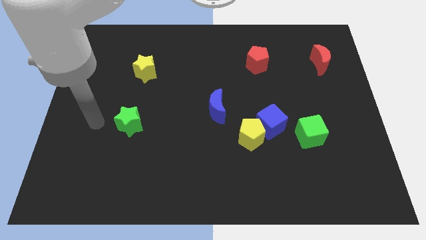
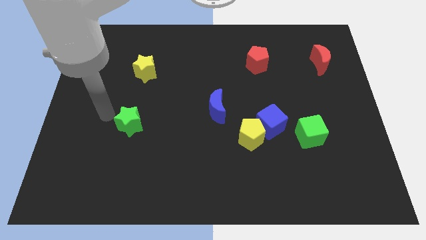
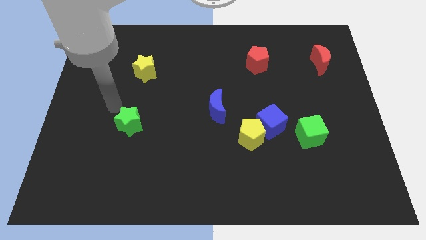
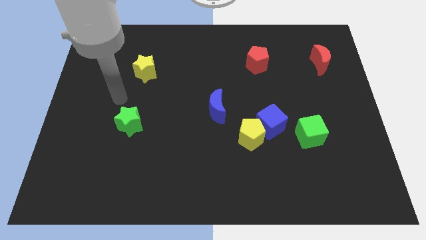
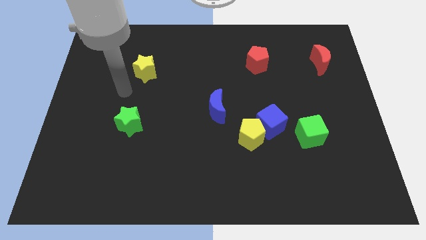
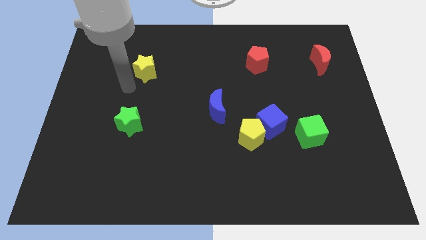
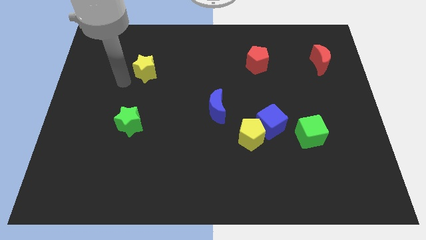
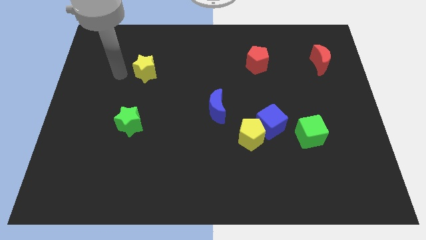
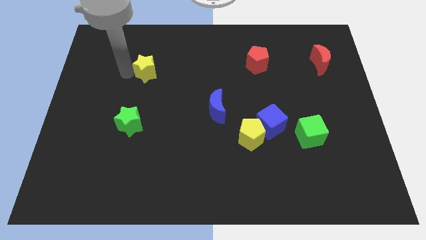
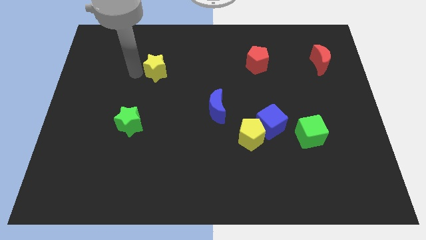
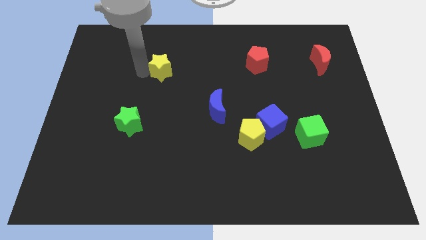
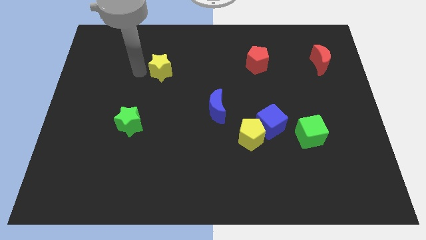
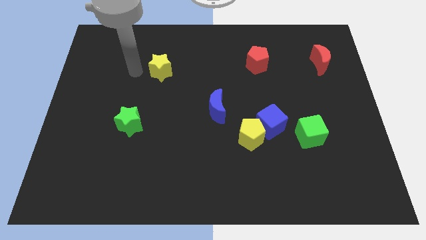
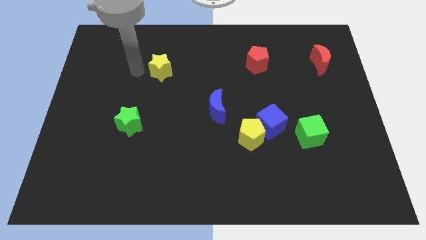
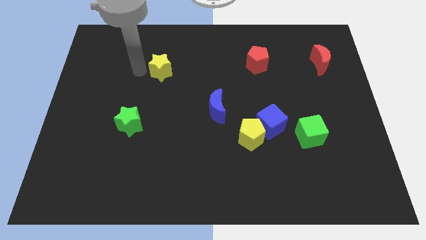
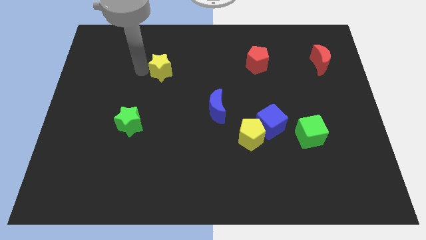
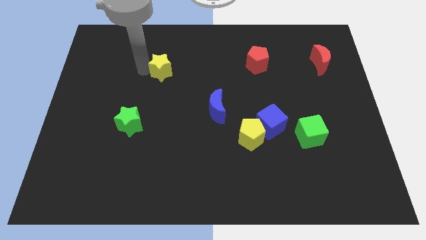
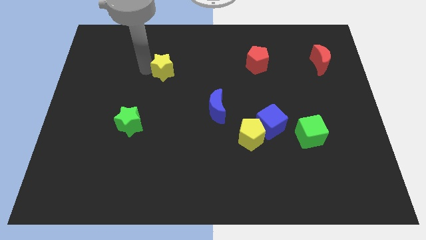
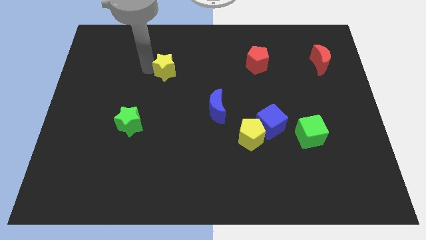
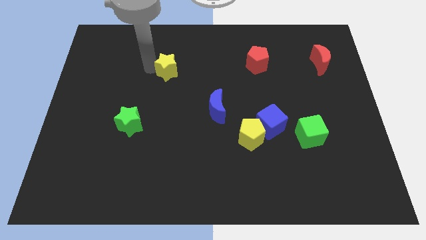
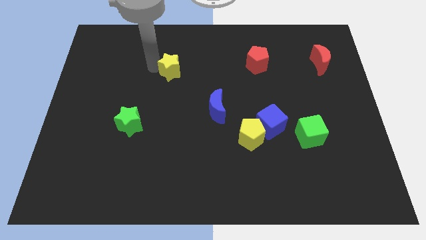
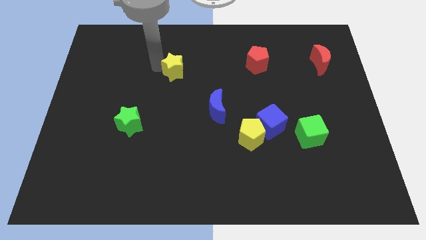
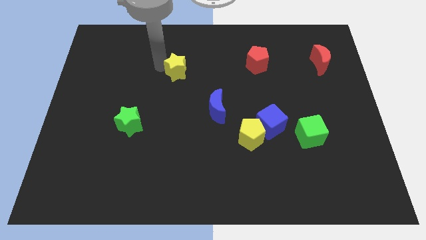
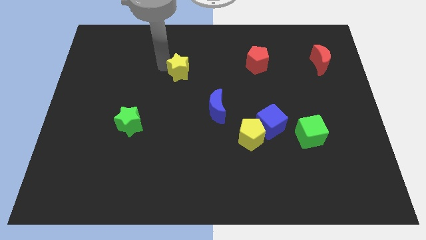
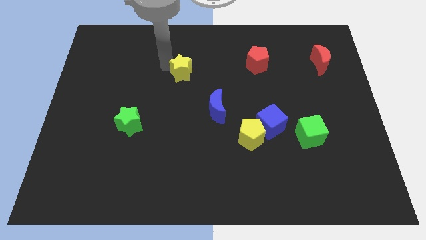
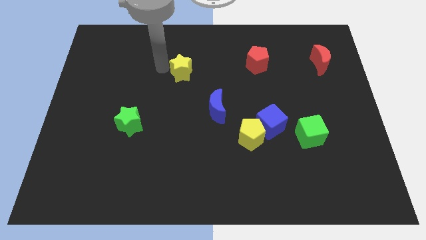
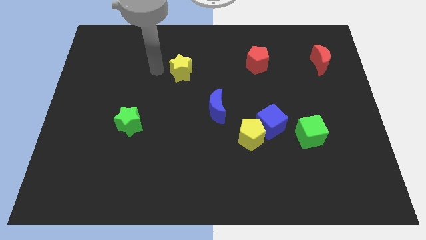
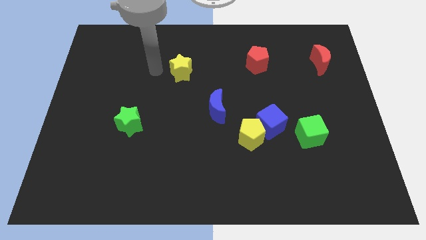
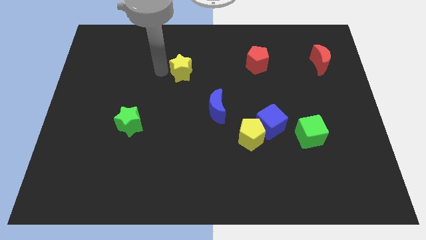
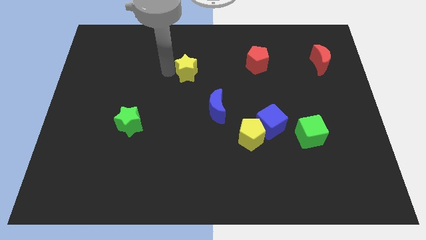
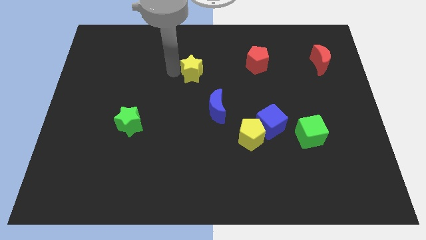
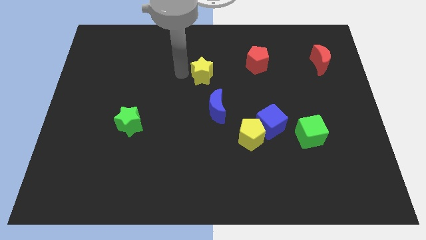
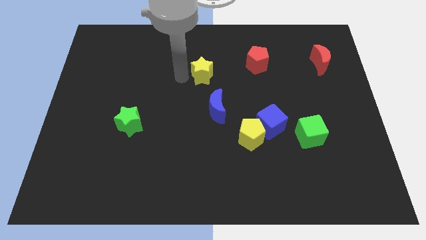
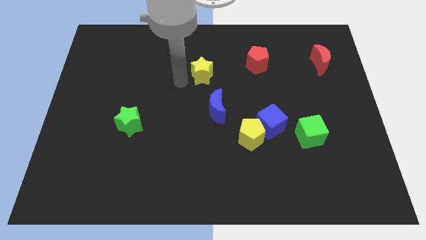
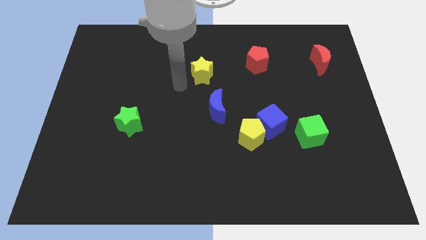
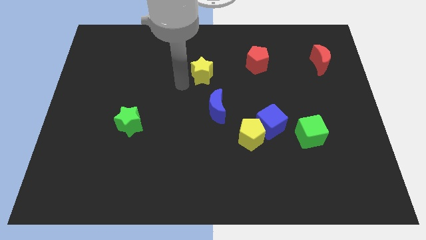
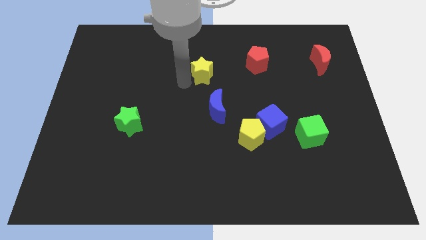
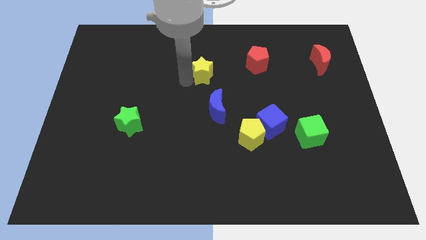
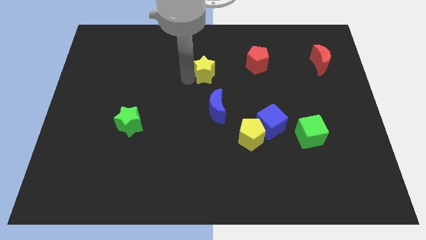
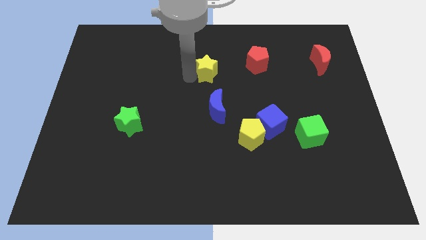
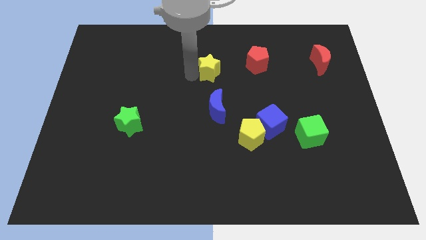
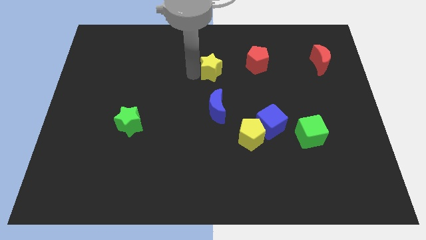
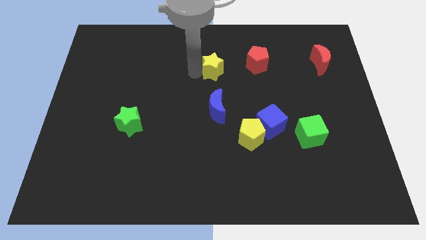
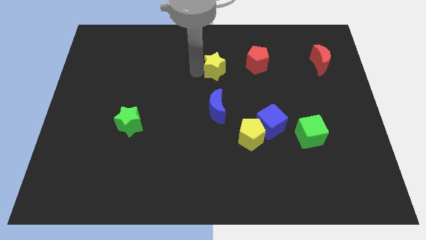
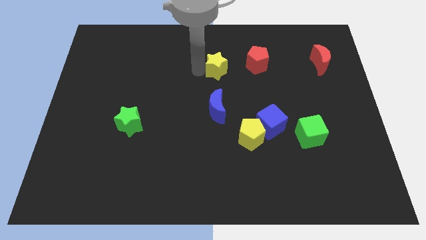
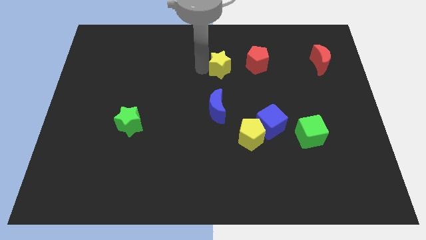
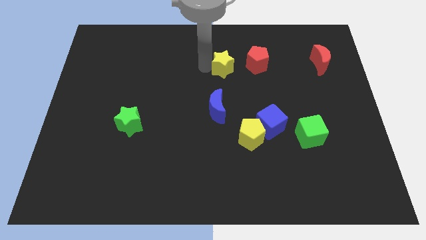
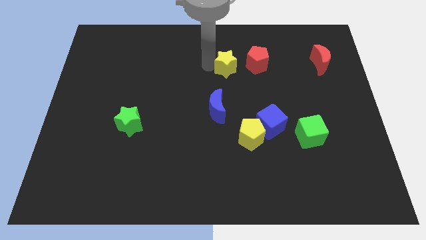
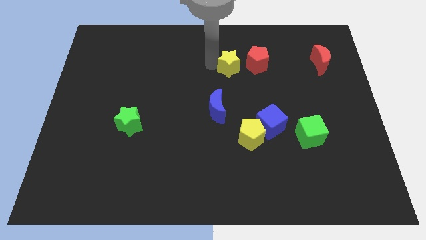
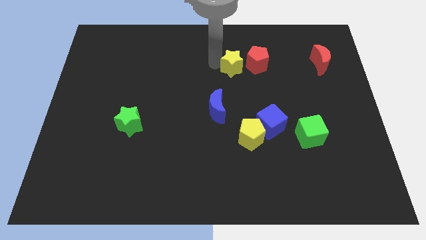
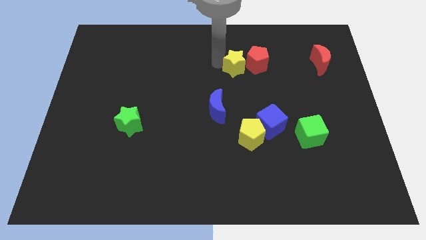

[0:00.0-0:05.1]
push the yellow star close to the red pentagon

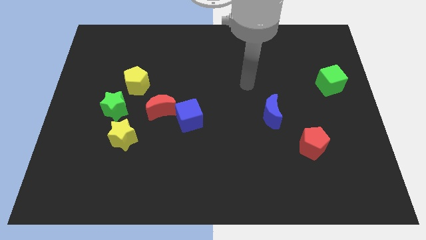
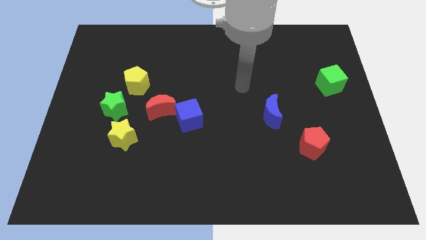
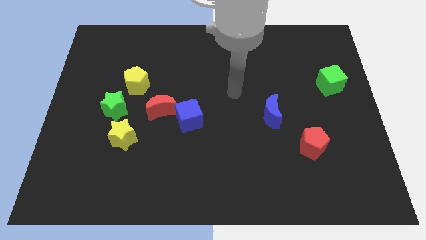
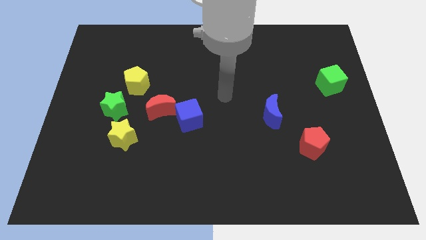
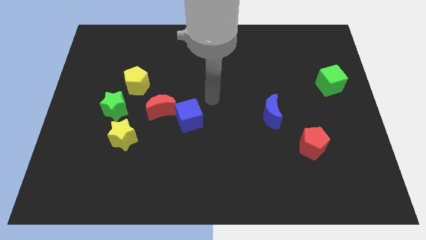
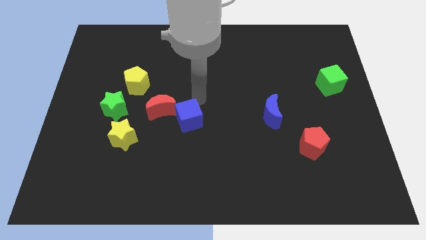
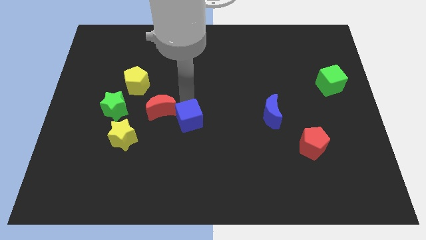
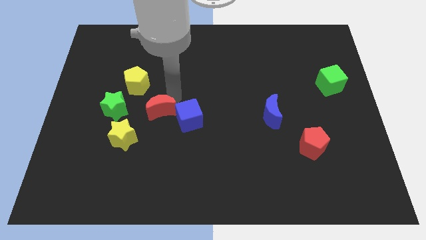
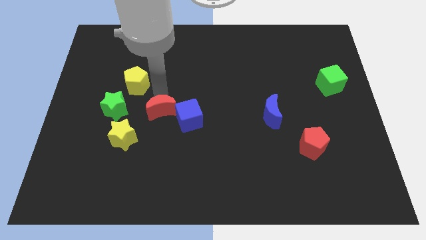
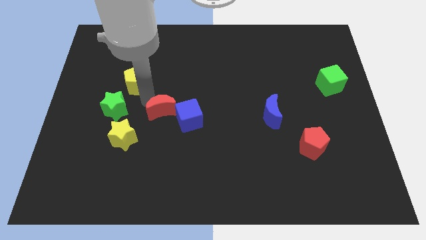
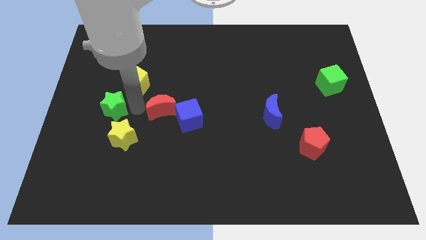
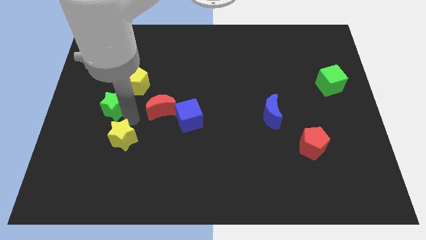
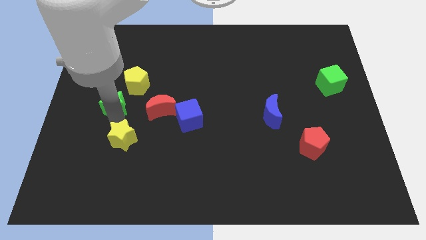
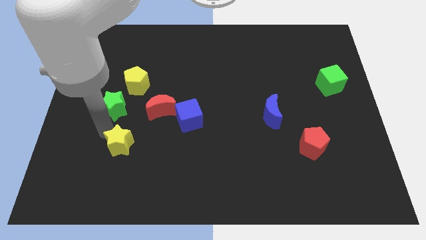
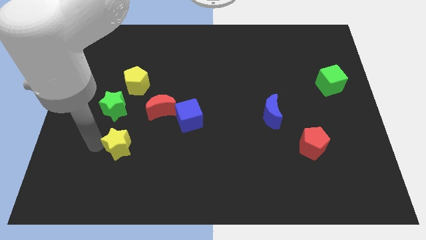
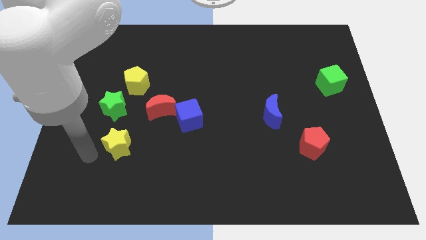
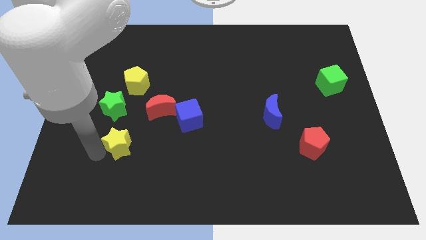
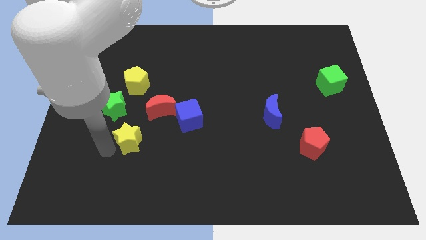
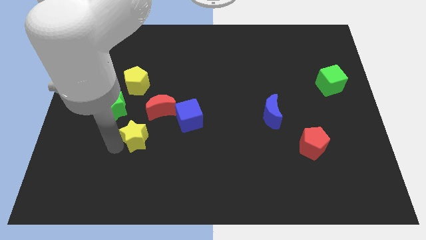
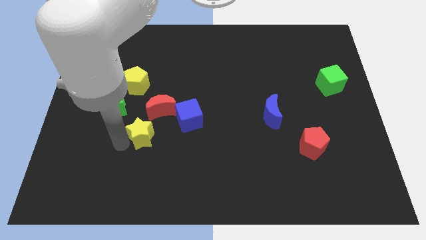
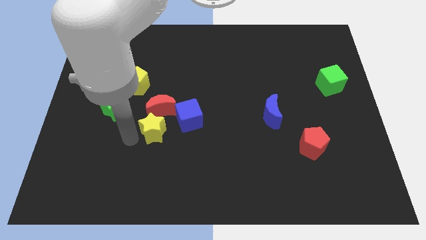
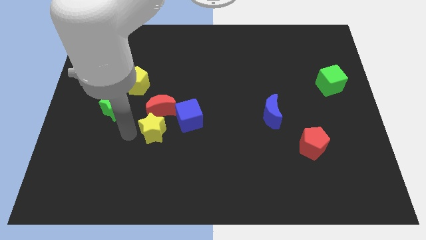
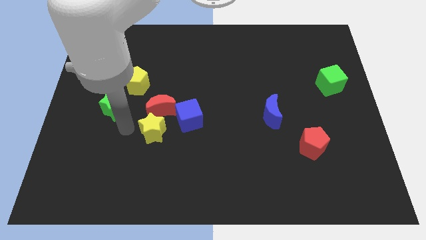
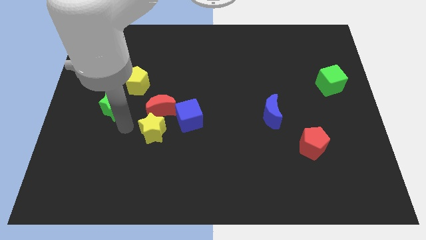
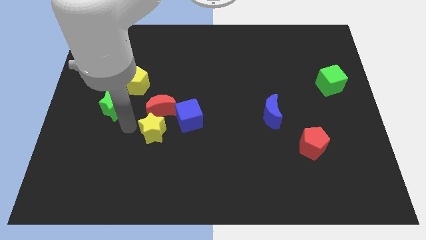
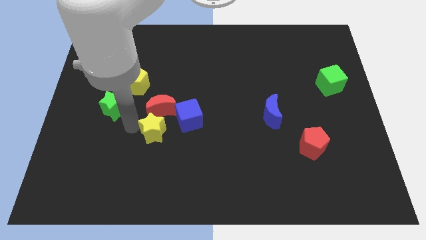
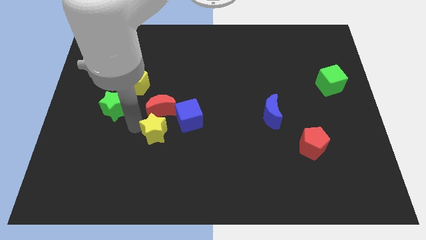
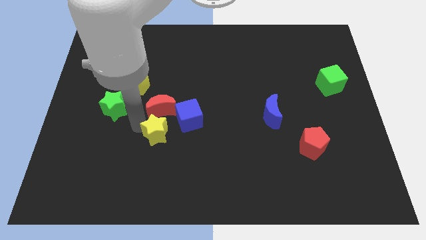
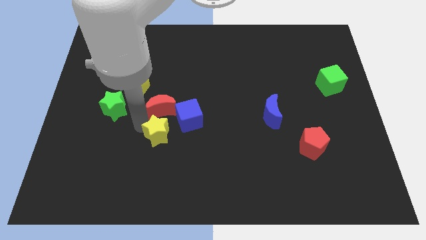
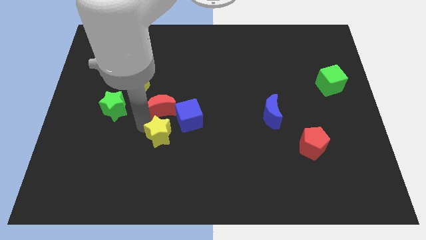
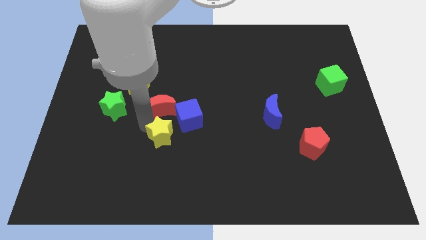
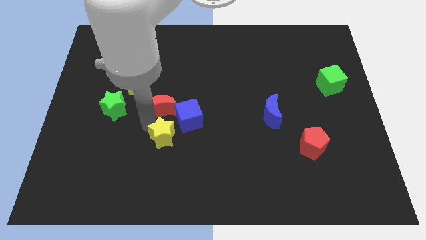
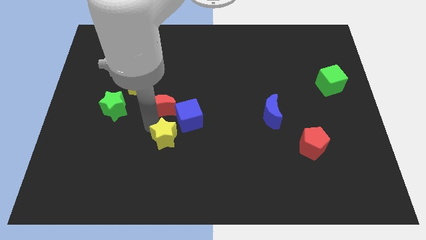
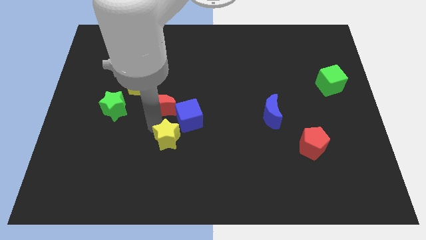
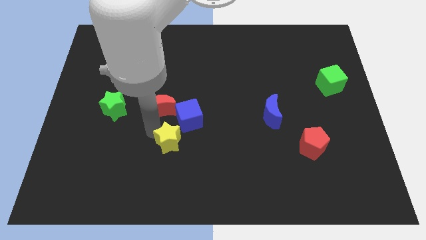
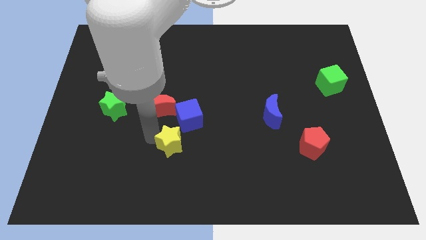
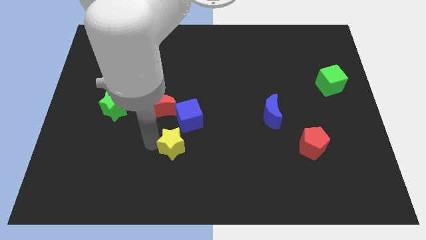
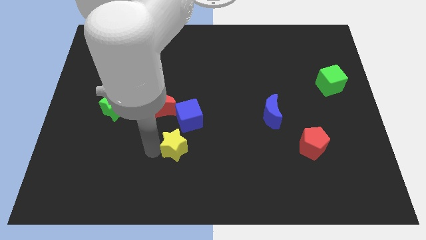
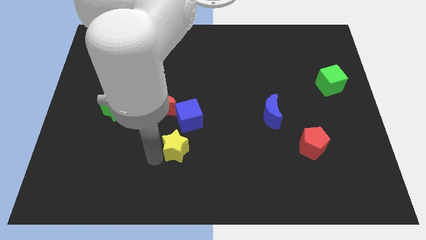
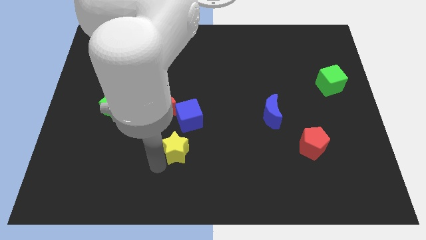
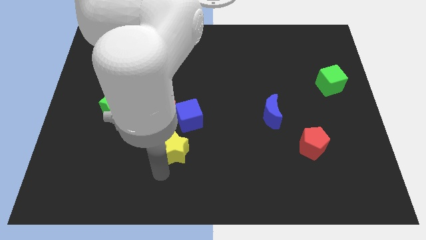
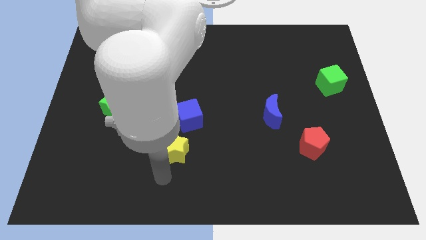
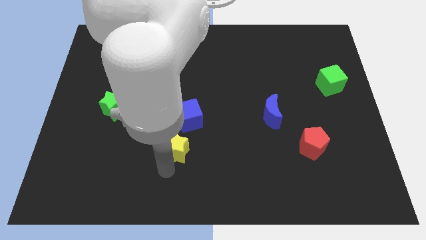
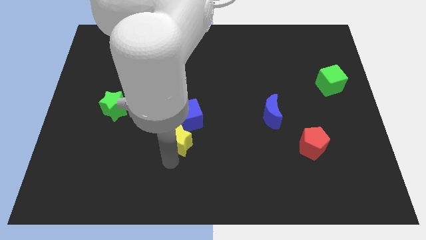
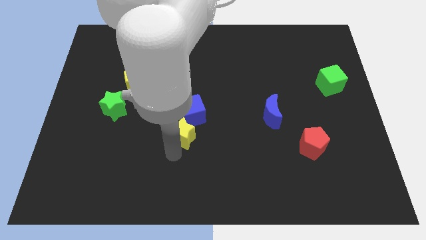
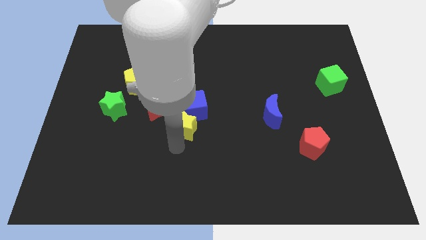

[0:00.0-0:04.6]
push the yellow star next to the blue cube
